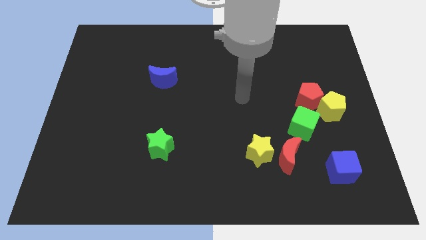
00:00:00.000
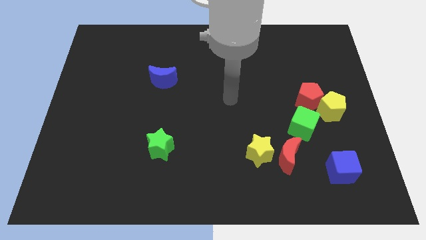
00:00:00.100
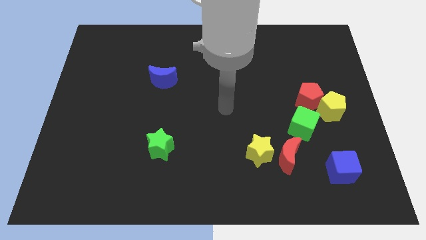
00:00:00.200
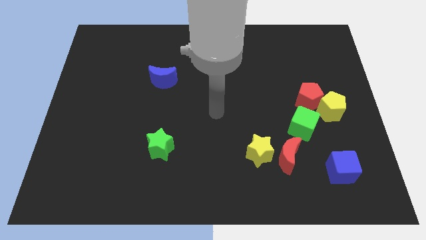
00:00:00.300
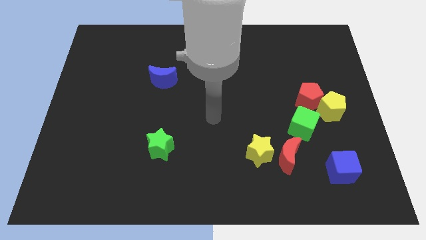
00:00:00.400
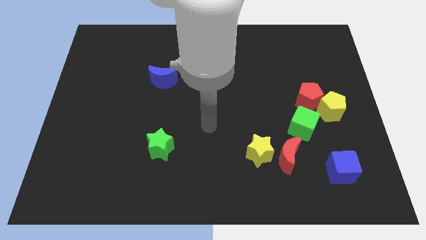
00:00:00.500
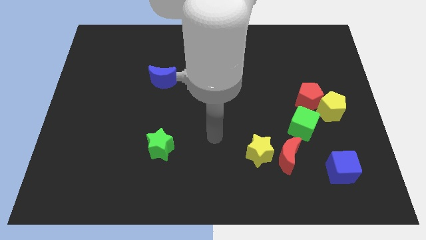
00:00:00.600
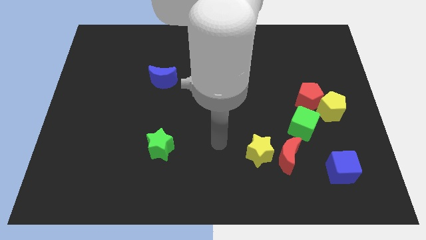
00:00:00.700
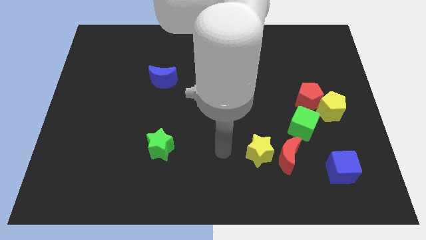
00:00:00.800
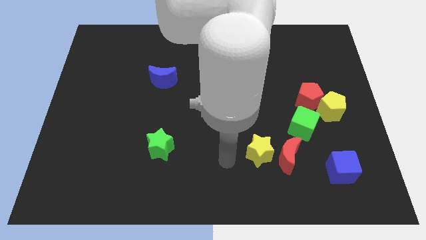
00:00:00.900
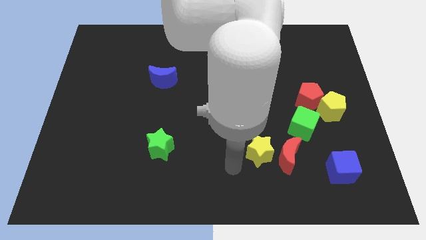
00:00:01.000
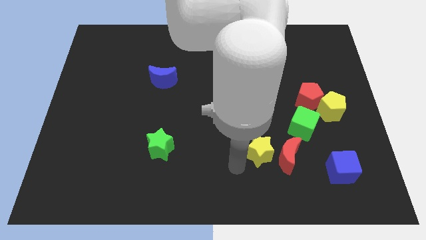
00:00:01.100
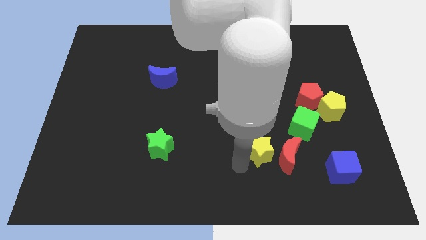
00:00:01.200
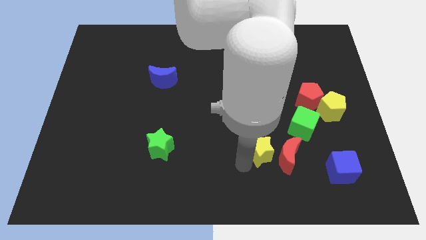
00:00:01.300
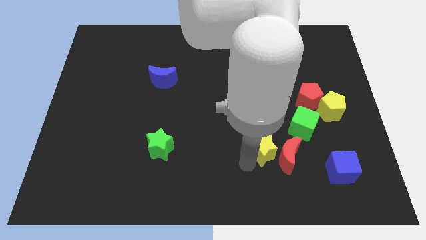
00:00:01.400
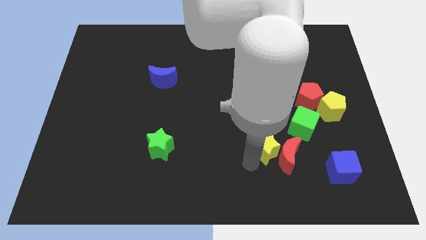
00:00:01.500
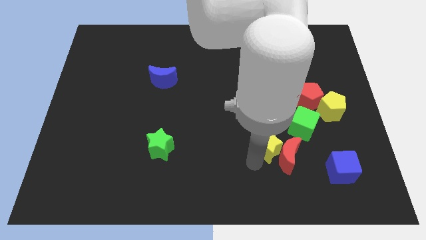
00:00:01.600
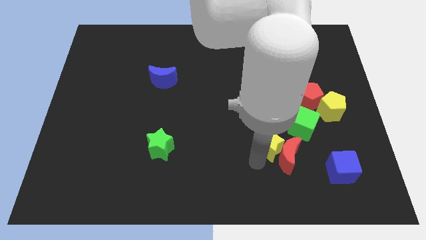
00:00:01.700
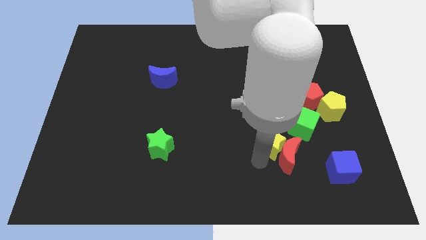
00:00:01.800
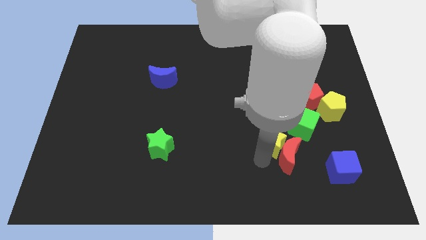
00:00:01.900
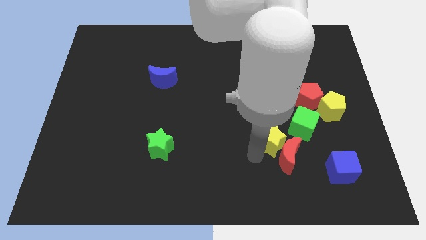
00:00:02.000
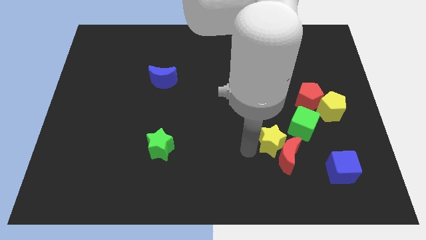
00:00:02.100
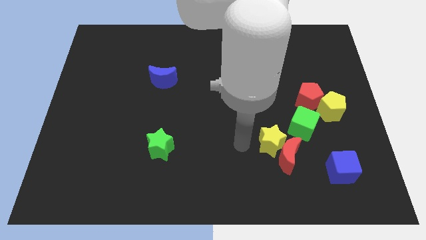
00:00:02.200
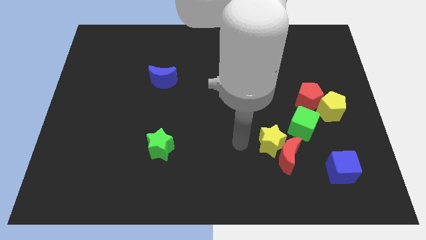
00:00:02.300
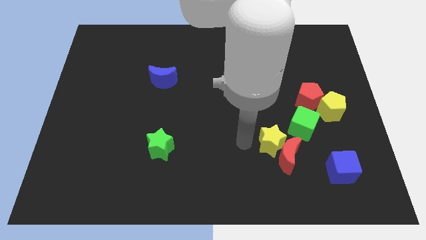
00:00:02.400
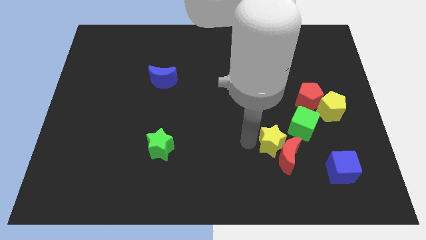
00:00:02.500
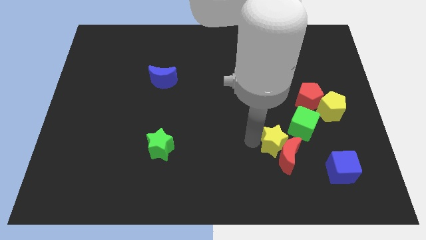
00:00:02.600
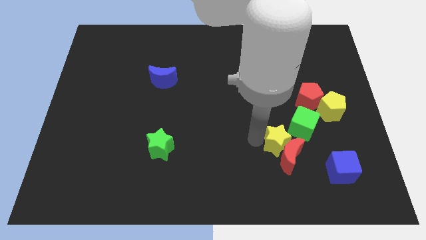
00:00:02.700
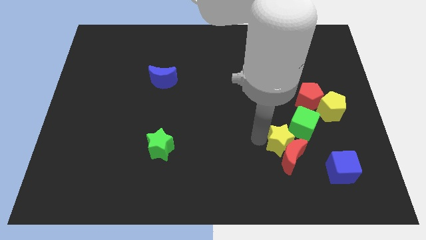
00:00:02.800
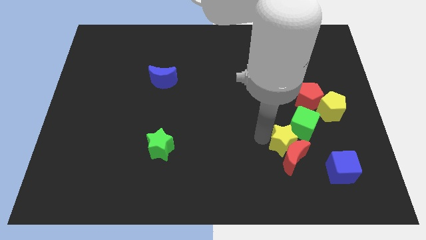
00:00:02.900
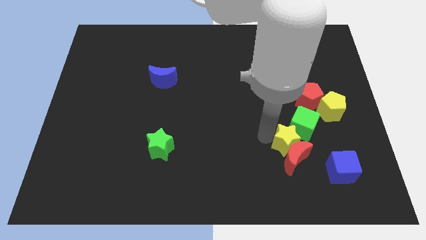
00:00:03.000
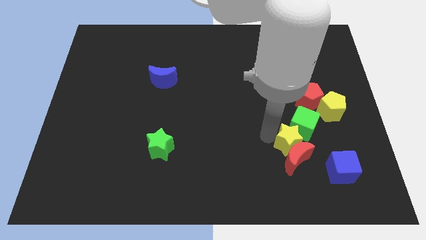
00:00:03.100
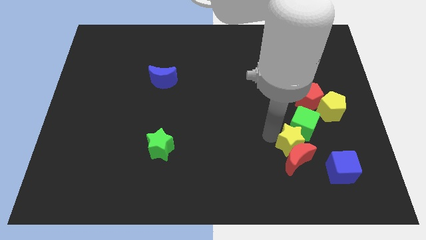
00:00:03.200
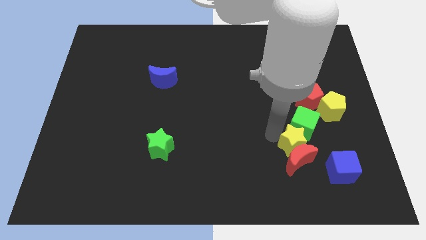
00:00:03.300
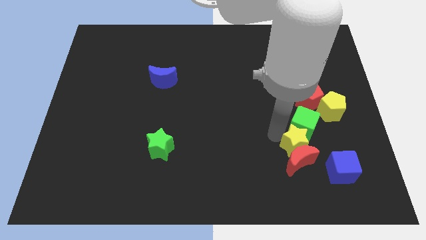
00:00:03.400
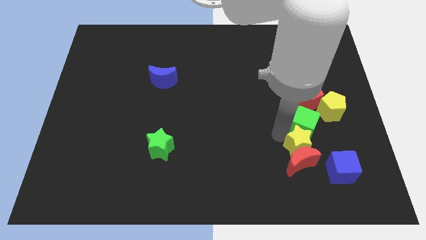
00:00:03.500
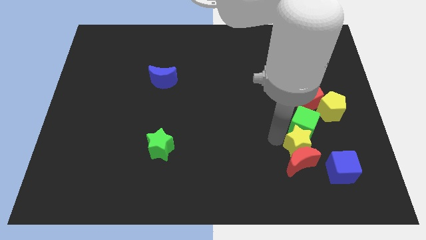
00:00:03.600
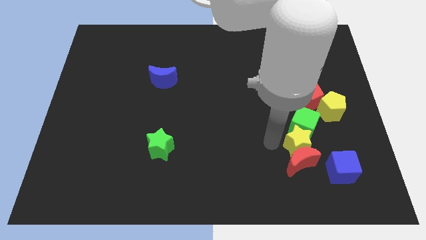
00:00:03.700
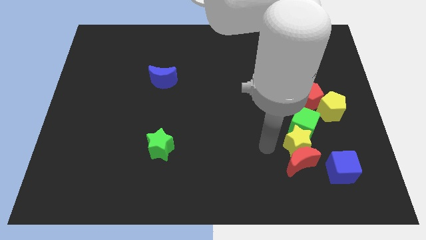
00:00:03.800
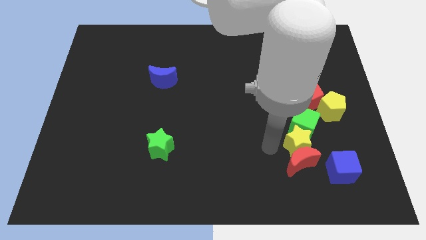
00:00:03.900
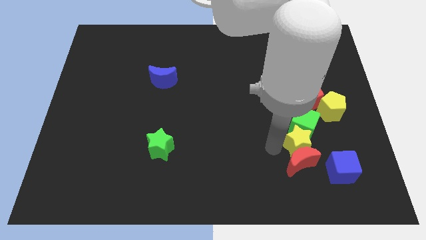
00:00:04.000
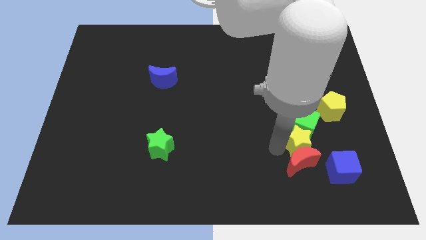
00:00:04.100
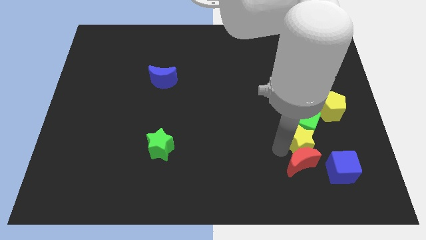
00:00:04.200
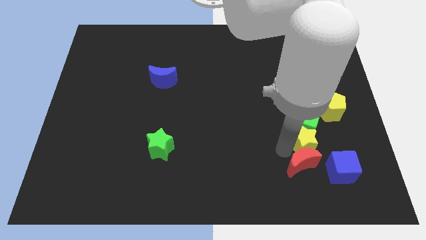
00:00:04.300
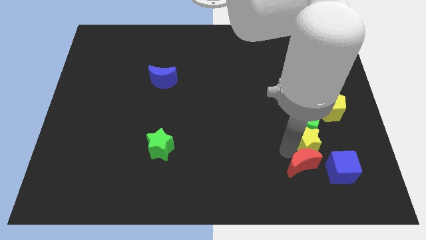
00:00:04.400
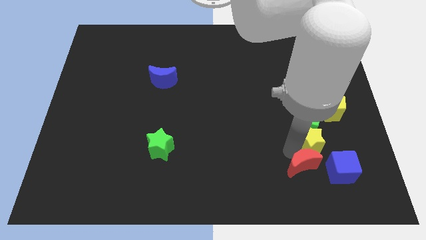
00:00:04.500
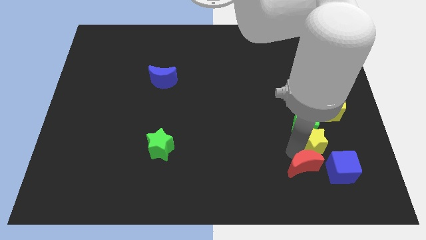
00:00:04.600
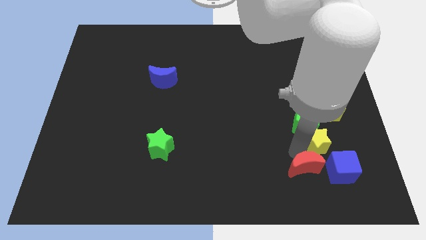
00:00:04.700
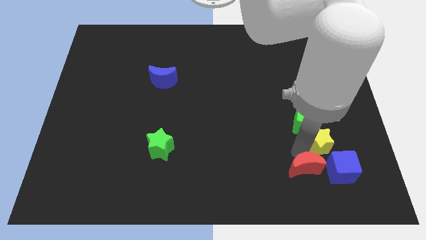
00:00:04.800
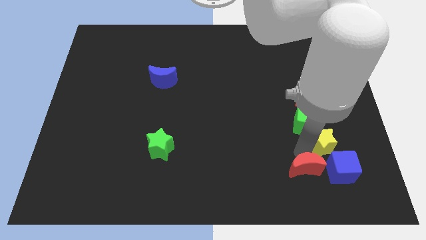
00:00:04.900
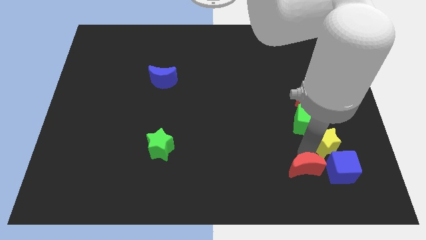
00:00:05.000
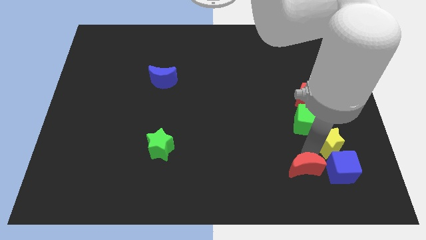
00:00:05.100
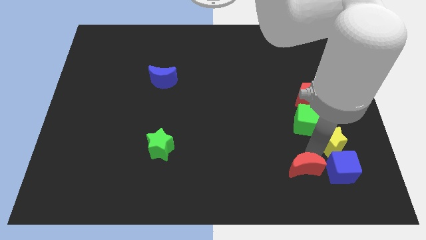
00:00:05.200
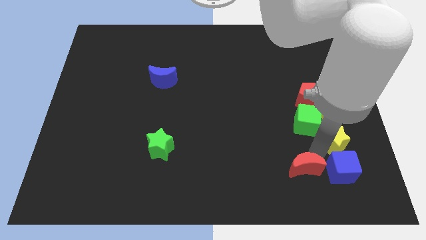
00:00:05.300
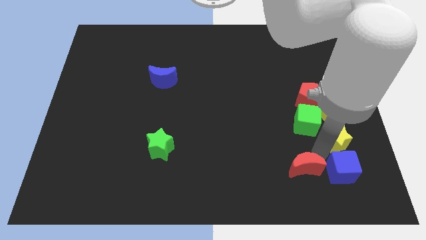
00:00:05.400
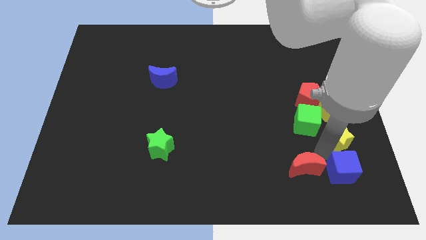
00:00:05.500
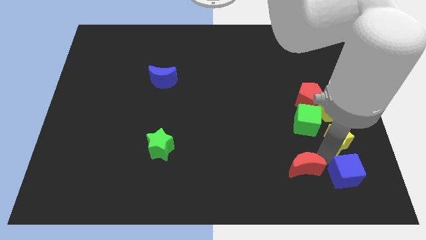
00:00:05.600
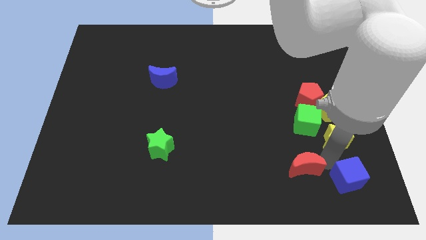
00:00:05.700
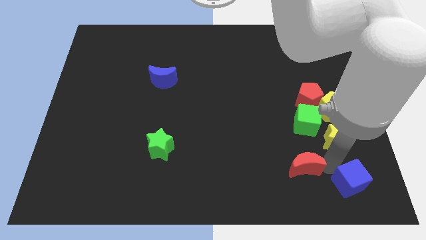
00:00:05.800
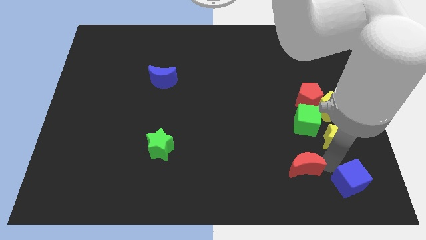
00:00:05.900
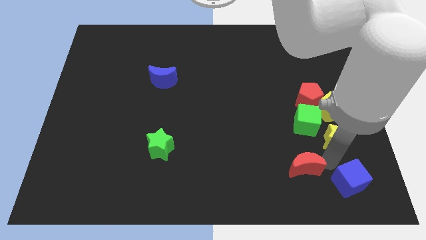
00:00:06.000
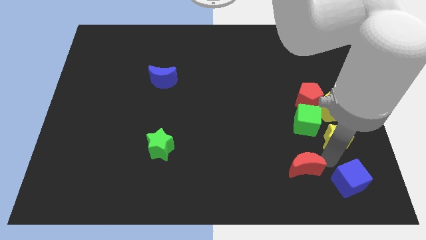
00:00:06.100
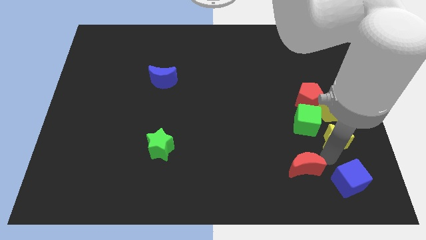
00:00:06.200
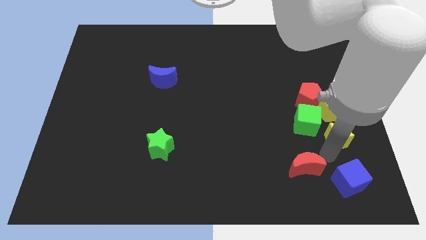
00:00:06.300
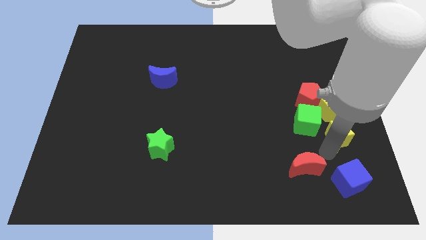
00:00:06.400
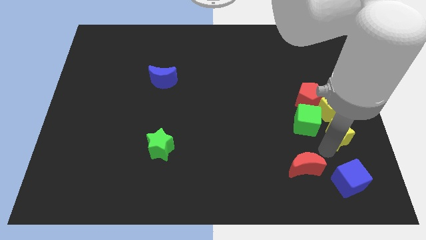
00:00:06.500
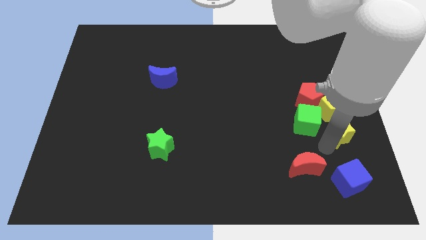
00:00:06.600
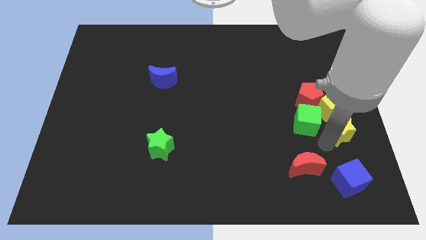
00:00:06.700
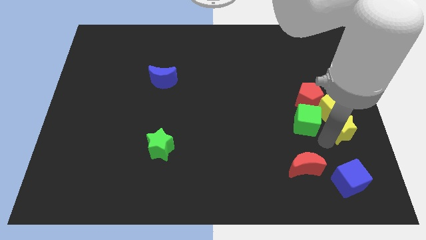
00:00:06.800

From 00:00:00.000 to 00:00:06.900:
put the yellow star to the yellow pentagon

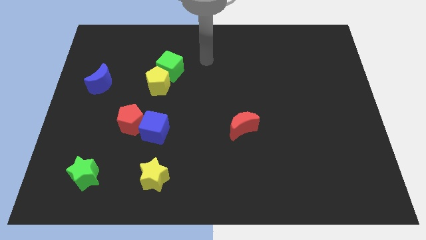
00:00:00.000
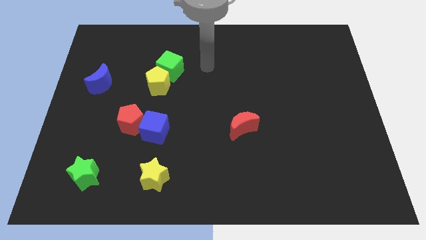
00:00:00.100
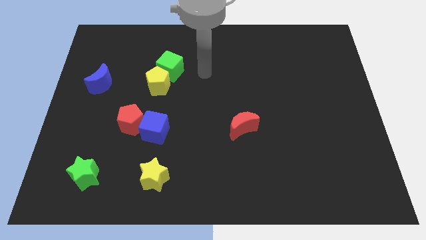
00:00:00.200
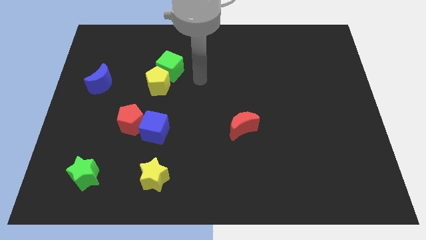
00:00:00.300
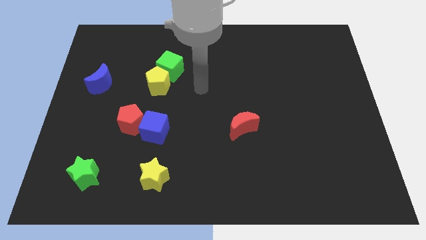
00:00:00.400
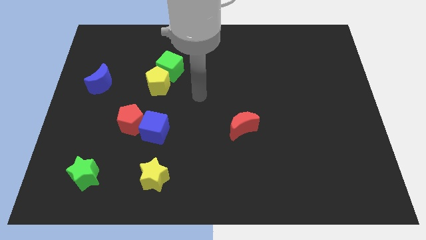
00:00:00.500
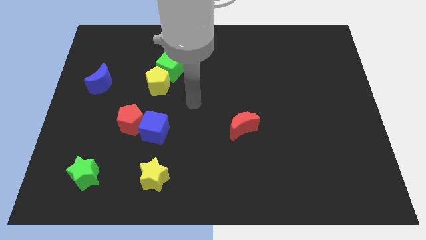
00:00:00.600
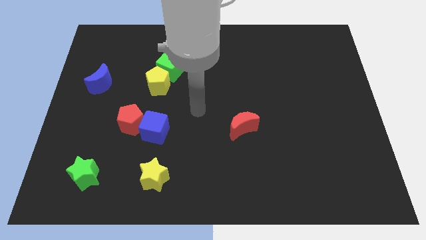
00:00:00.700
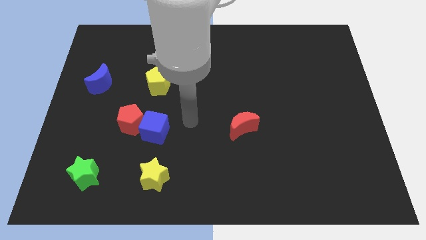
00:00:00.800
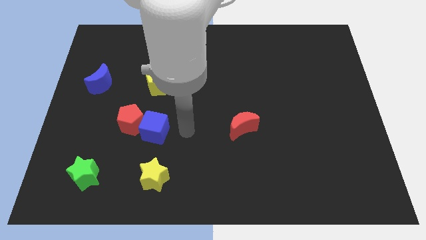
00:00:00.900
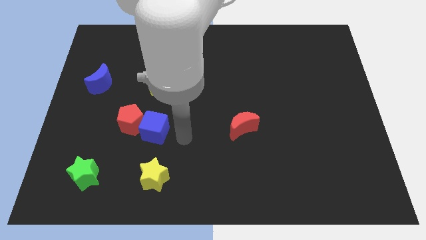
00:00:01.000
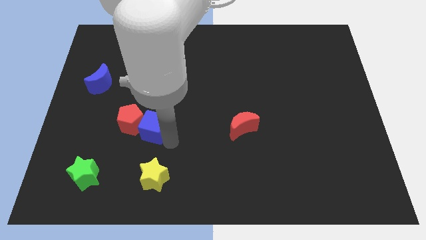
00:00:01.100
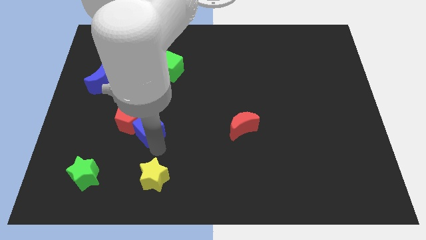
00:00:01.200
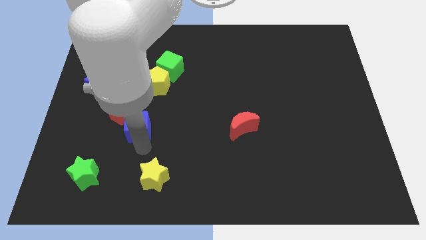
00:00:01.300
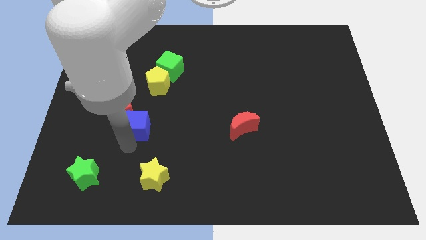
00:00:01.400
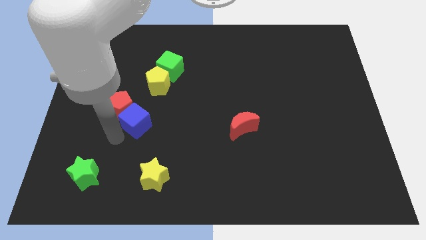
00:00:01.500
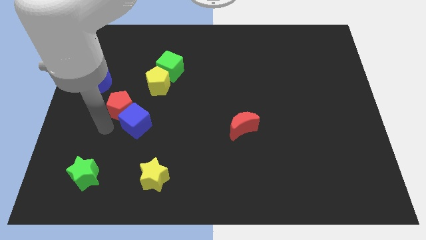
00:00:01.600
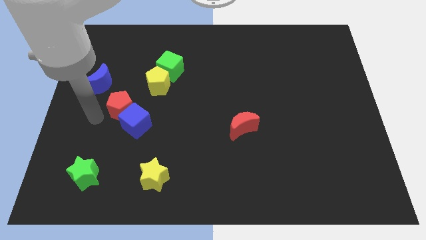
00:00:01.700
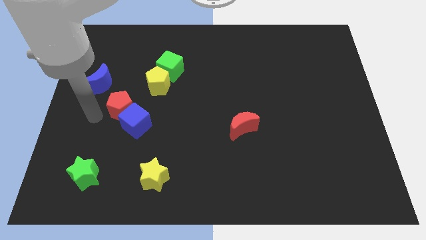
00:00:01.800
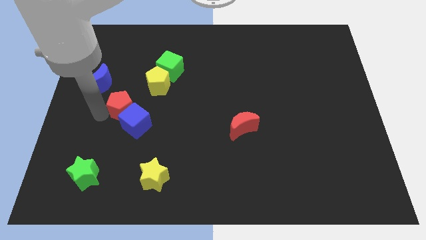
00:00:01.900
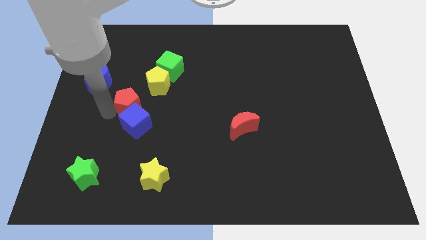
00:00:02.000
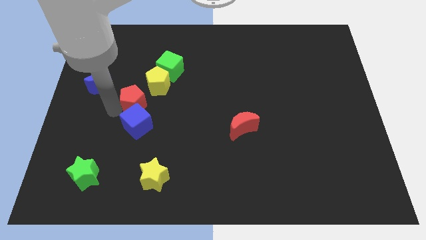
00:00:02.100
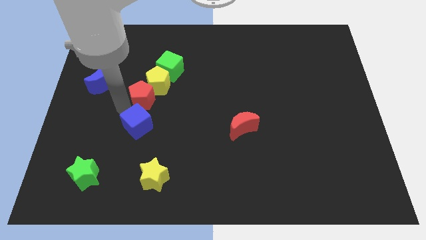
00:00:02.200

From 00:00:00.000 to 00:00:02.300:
push the red pentagon towards the yellow pentagon
